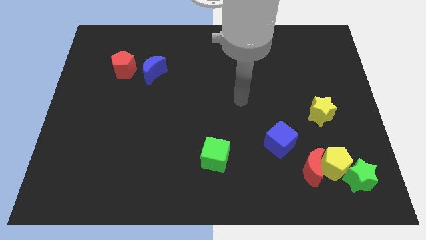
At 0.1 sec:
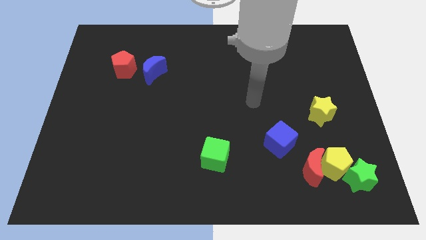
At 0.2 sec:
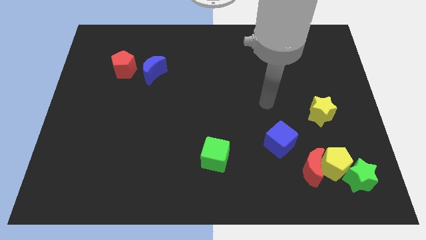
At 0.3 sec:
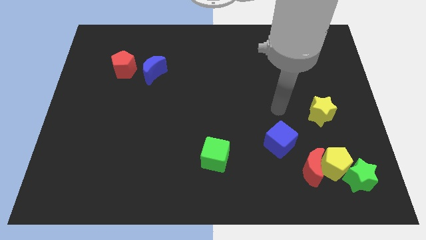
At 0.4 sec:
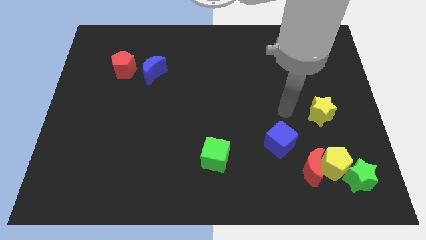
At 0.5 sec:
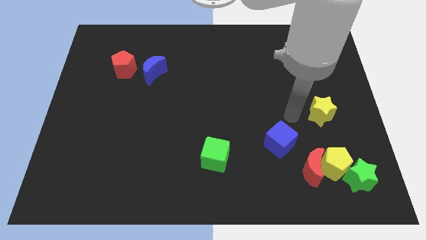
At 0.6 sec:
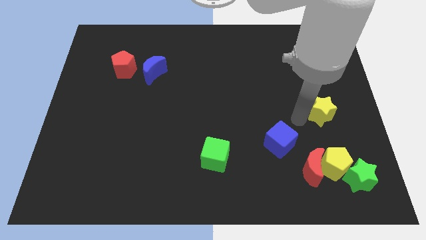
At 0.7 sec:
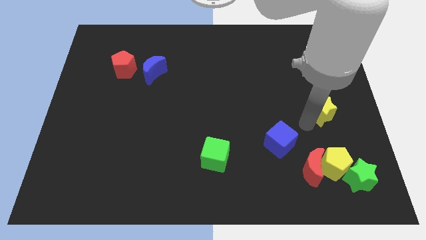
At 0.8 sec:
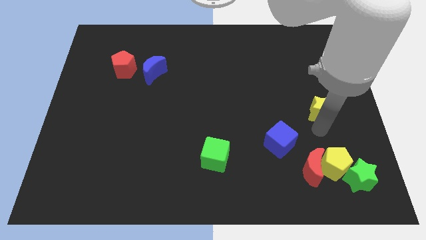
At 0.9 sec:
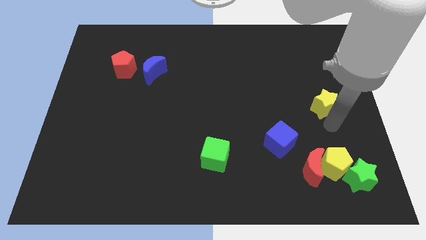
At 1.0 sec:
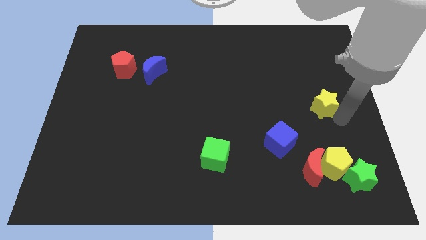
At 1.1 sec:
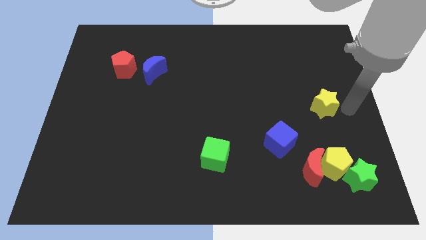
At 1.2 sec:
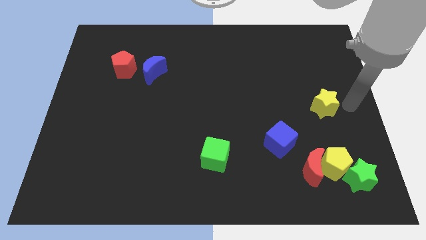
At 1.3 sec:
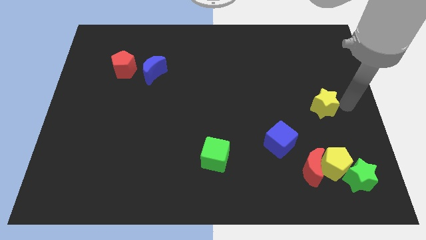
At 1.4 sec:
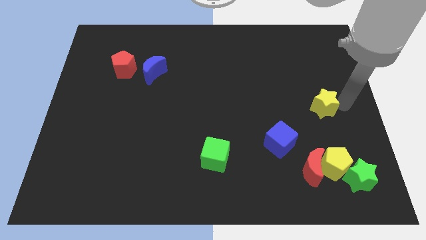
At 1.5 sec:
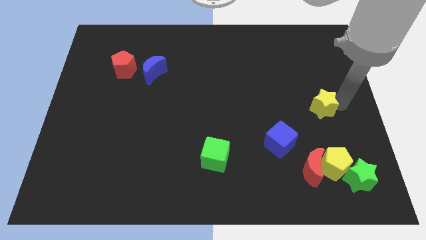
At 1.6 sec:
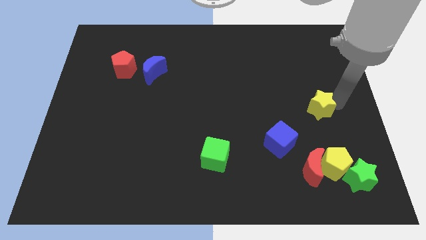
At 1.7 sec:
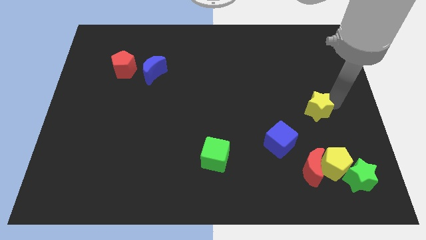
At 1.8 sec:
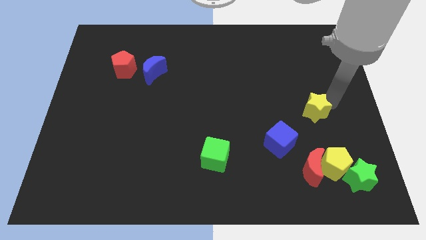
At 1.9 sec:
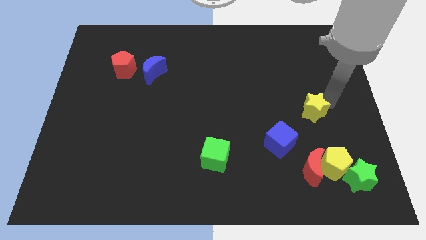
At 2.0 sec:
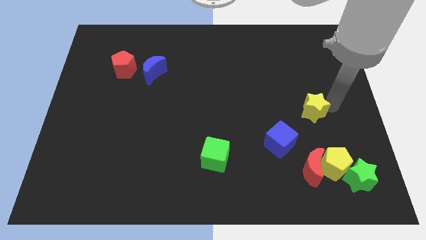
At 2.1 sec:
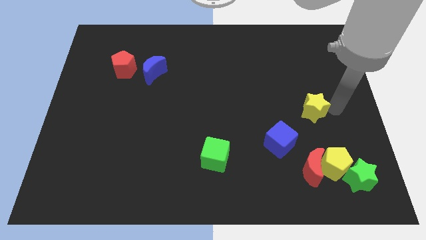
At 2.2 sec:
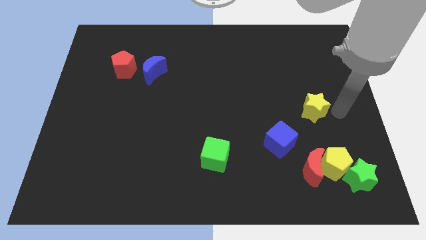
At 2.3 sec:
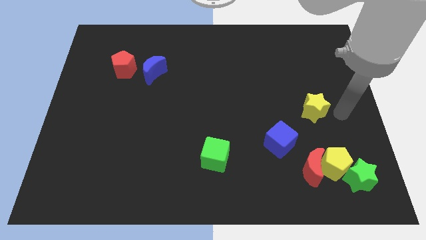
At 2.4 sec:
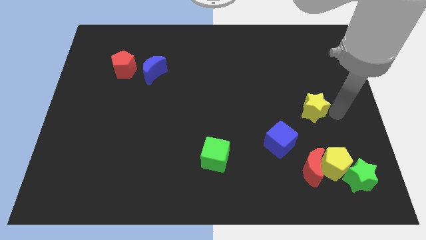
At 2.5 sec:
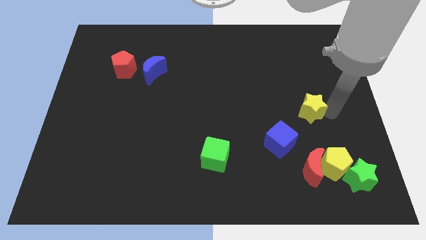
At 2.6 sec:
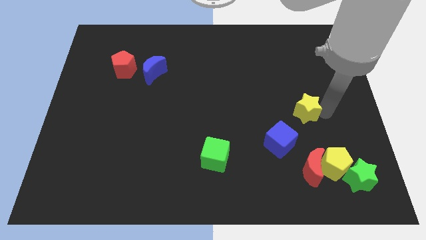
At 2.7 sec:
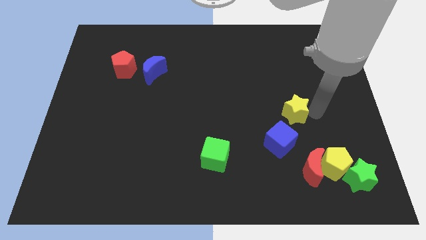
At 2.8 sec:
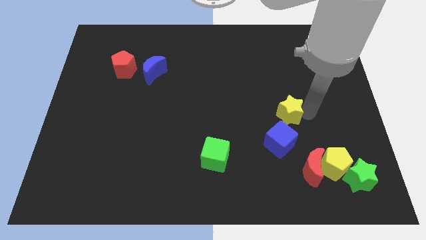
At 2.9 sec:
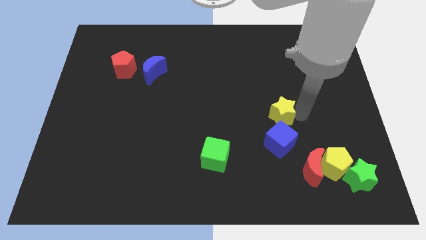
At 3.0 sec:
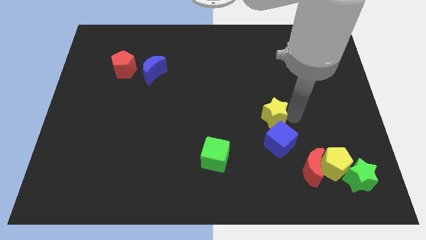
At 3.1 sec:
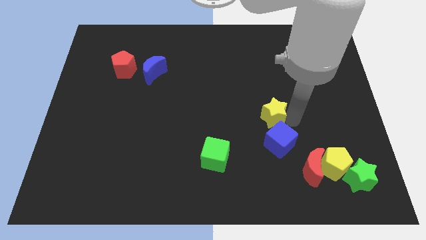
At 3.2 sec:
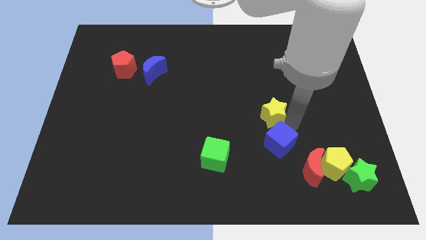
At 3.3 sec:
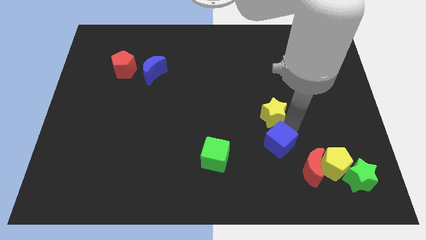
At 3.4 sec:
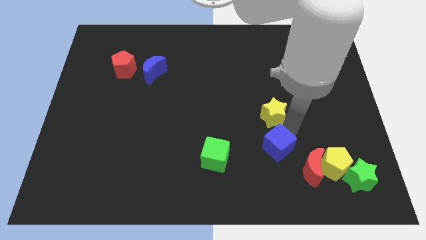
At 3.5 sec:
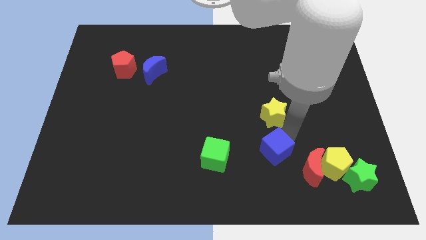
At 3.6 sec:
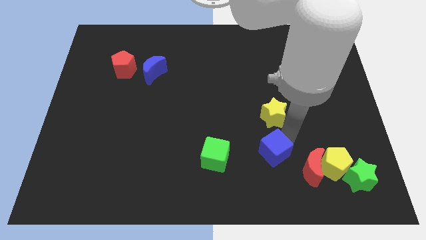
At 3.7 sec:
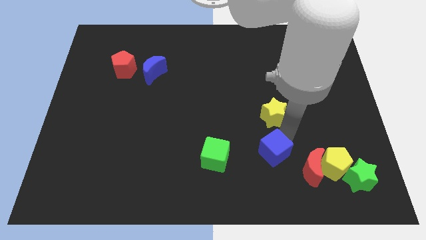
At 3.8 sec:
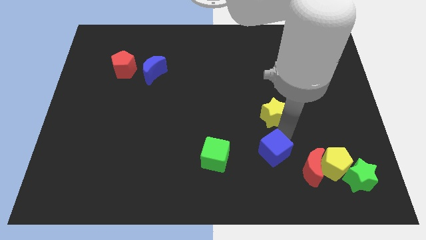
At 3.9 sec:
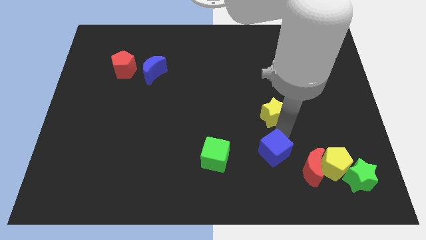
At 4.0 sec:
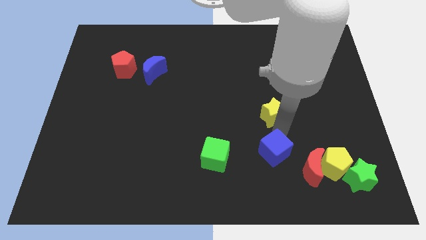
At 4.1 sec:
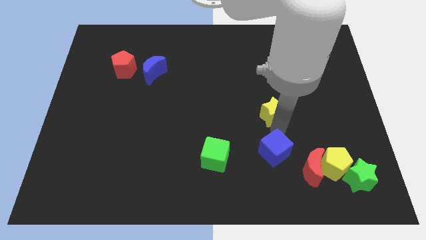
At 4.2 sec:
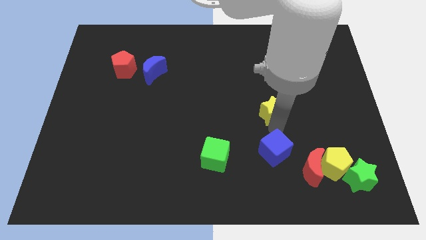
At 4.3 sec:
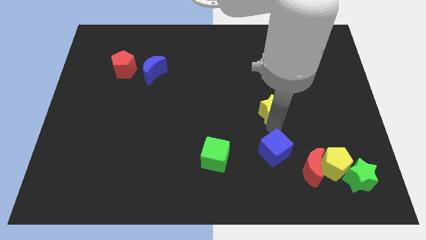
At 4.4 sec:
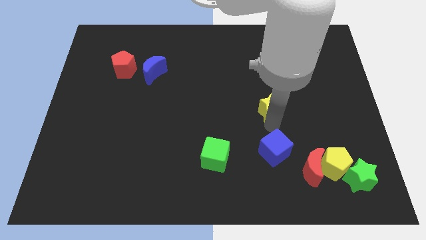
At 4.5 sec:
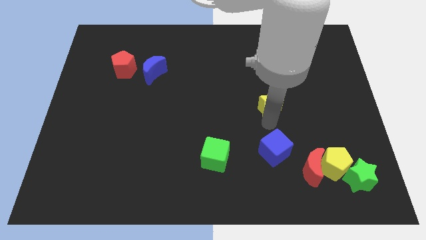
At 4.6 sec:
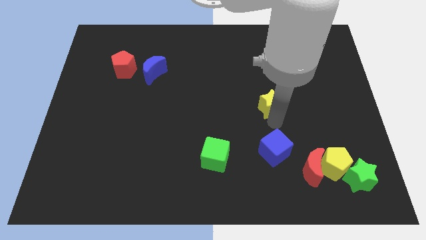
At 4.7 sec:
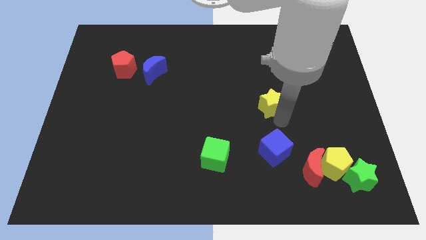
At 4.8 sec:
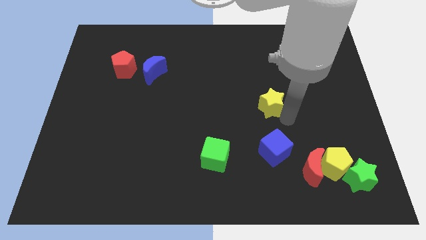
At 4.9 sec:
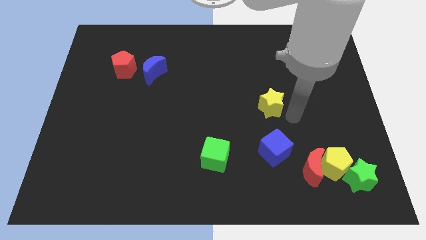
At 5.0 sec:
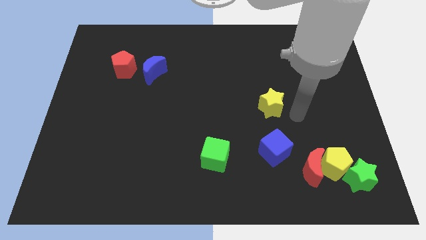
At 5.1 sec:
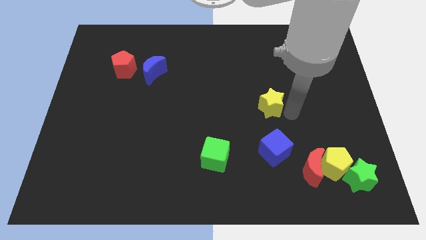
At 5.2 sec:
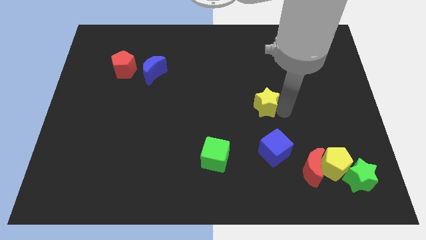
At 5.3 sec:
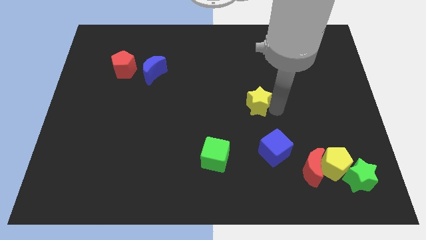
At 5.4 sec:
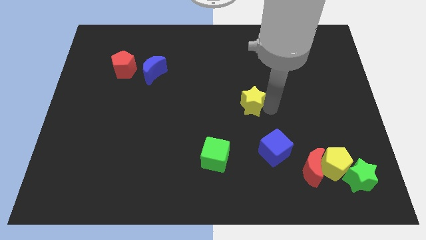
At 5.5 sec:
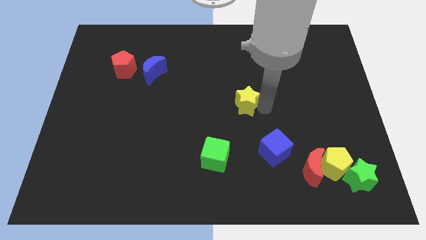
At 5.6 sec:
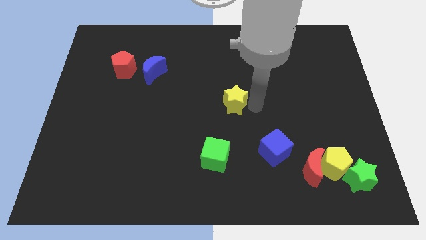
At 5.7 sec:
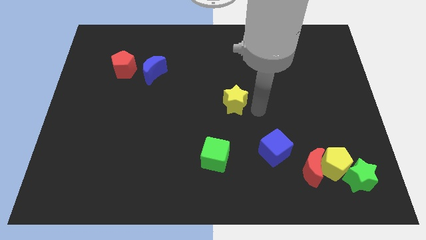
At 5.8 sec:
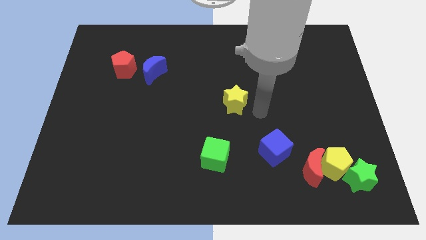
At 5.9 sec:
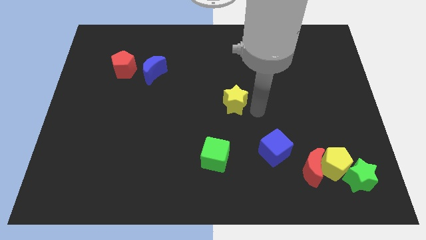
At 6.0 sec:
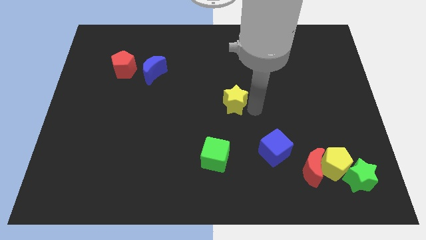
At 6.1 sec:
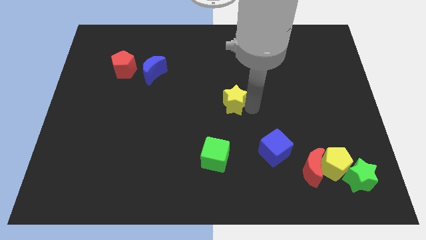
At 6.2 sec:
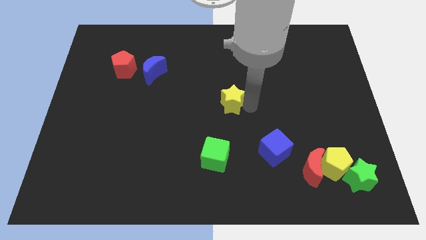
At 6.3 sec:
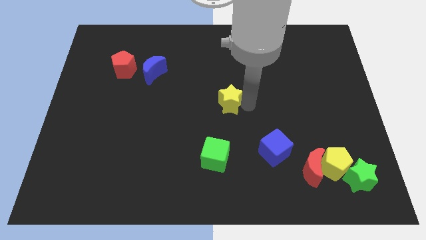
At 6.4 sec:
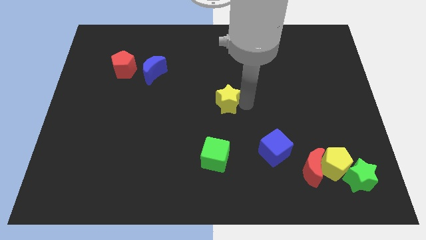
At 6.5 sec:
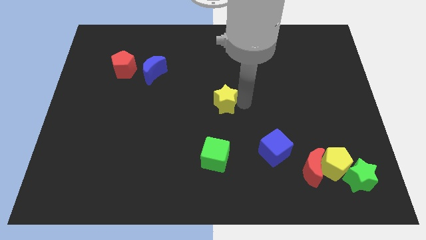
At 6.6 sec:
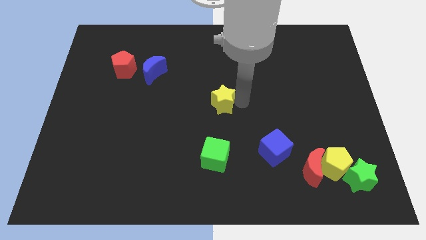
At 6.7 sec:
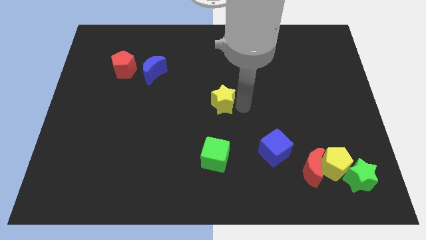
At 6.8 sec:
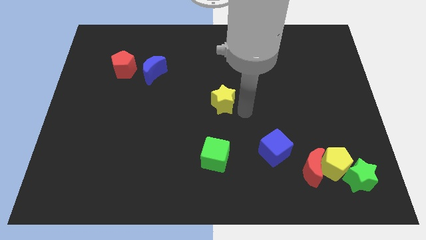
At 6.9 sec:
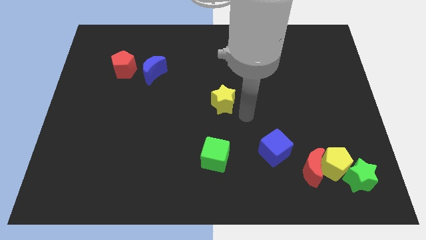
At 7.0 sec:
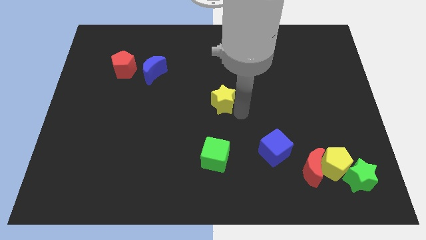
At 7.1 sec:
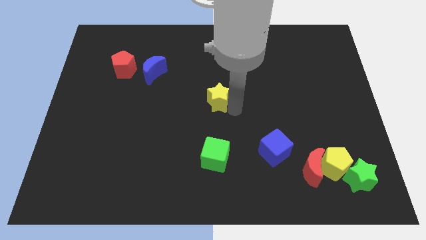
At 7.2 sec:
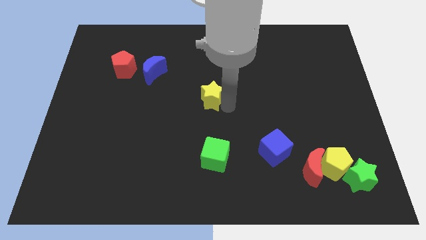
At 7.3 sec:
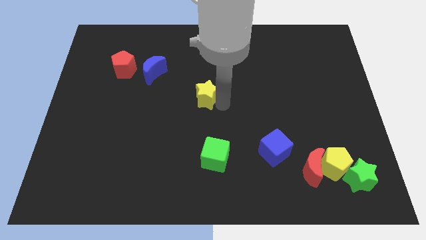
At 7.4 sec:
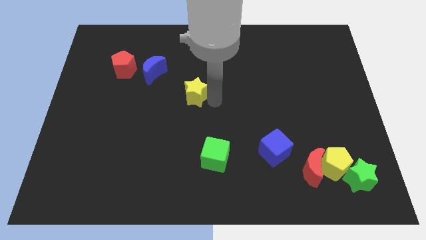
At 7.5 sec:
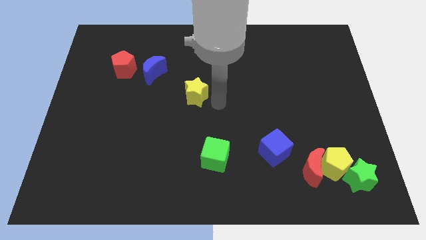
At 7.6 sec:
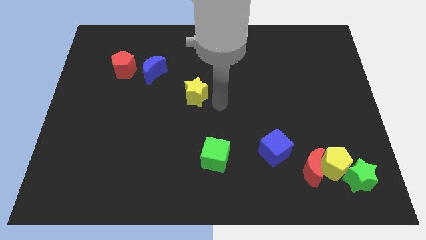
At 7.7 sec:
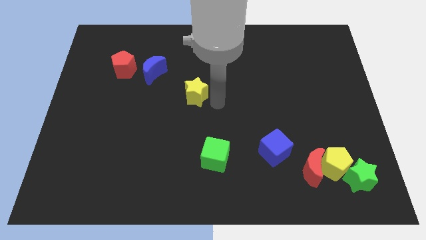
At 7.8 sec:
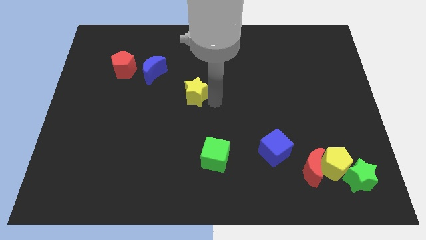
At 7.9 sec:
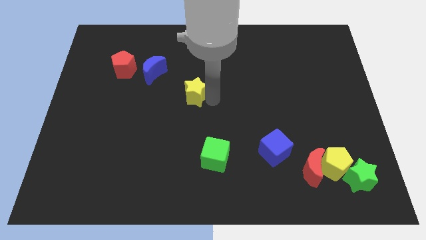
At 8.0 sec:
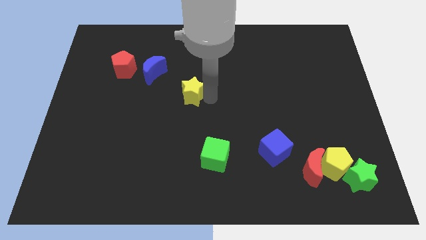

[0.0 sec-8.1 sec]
move the yellow star diagonally down and to the right of the blue moon

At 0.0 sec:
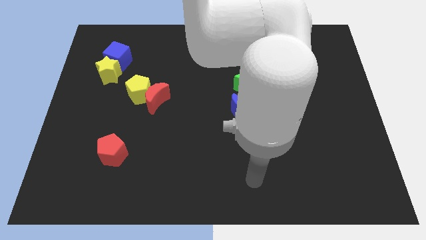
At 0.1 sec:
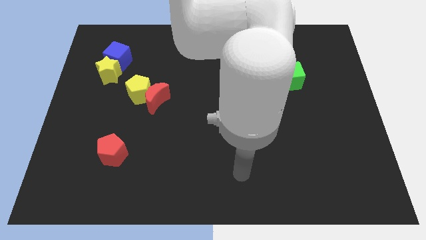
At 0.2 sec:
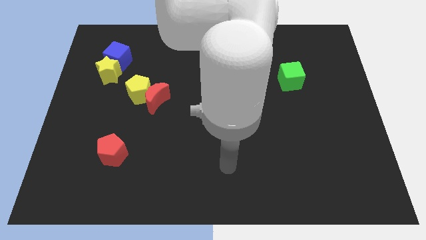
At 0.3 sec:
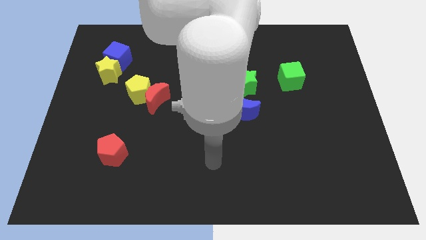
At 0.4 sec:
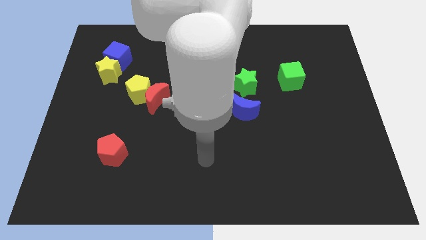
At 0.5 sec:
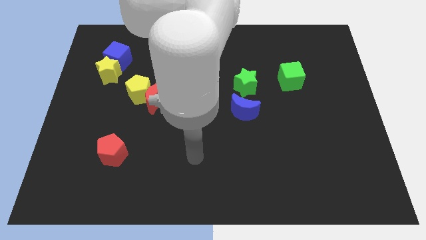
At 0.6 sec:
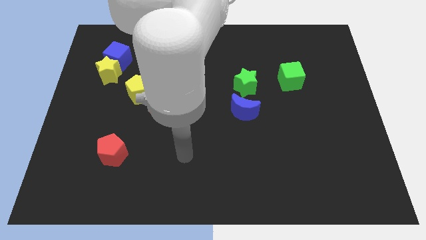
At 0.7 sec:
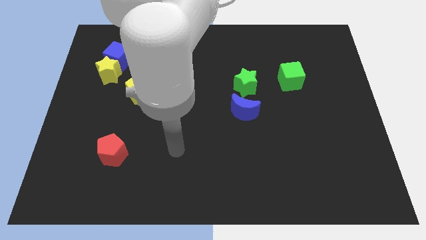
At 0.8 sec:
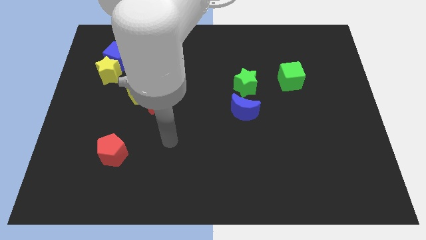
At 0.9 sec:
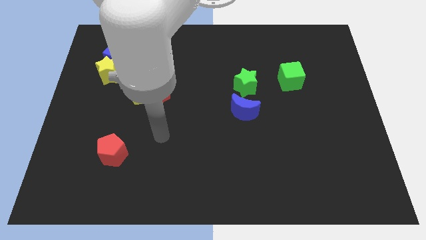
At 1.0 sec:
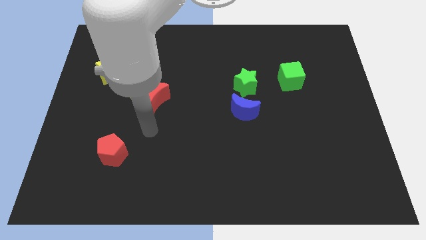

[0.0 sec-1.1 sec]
move the yellow pentagon above the red moon
